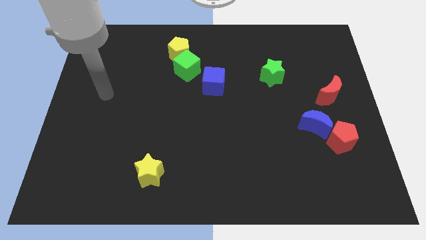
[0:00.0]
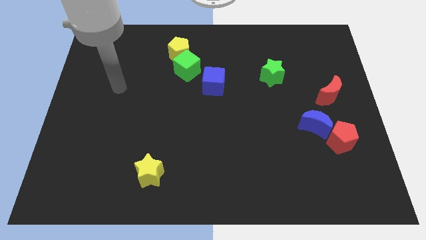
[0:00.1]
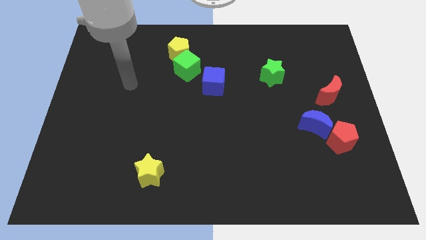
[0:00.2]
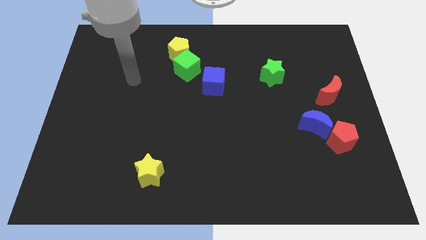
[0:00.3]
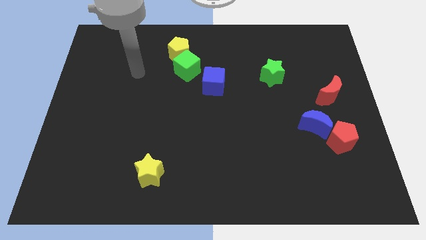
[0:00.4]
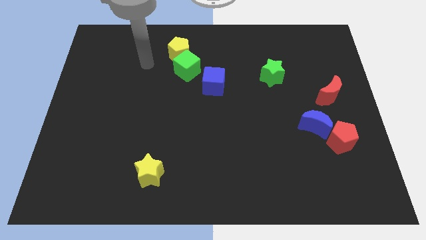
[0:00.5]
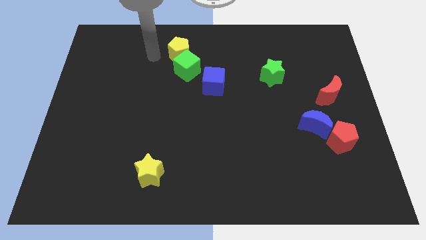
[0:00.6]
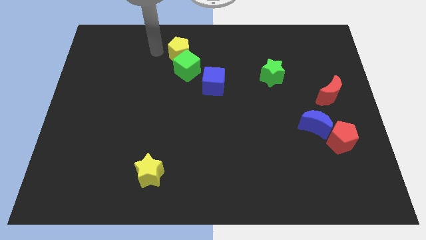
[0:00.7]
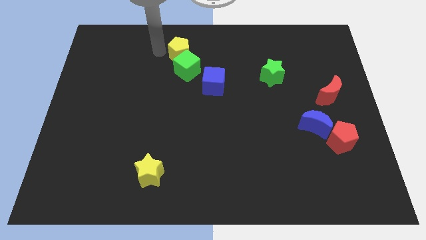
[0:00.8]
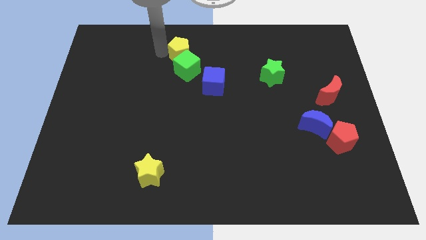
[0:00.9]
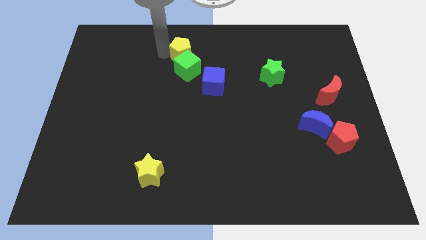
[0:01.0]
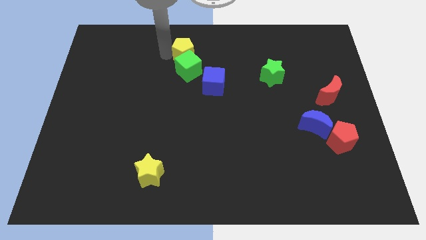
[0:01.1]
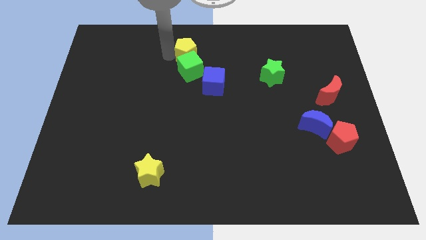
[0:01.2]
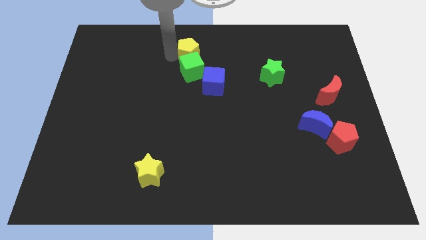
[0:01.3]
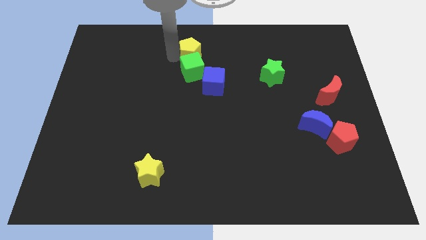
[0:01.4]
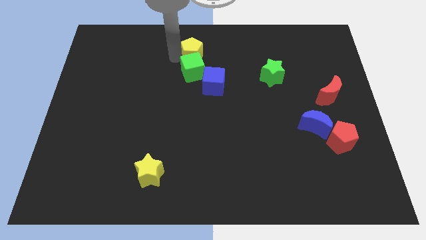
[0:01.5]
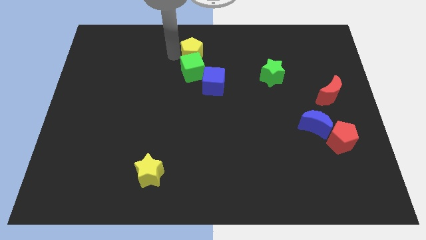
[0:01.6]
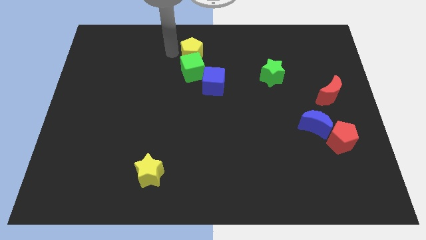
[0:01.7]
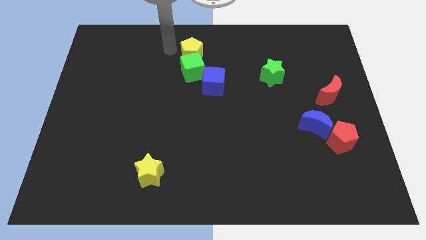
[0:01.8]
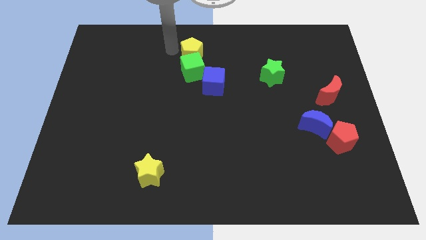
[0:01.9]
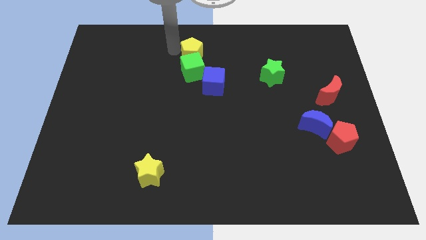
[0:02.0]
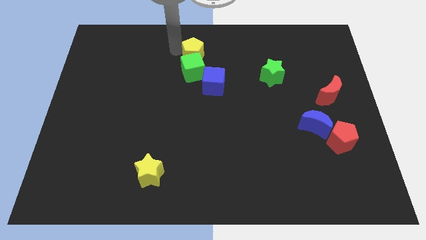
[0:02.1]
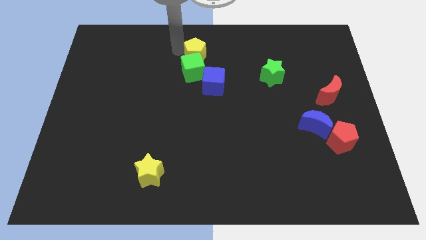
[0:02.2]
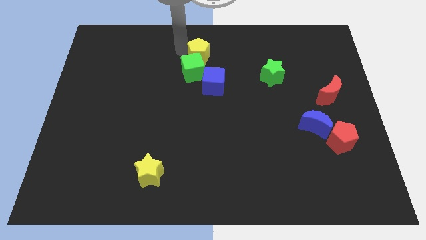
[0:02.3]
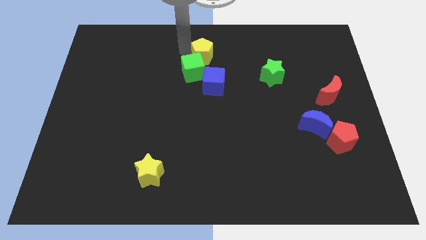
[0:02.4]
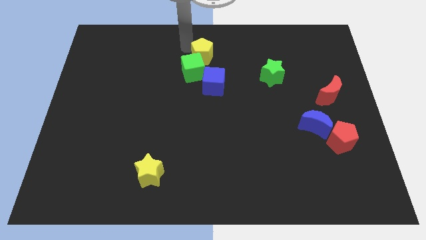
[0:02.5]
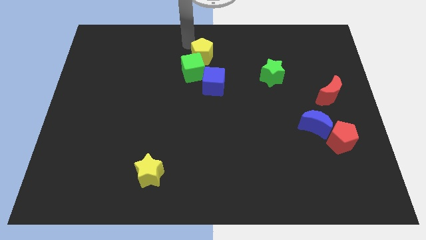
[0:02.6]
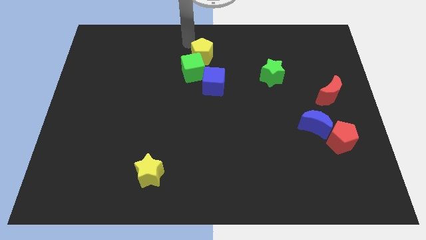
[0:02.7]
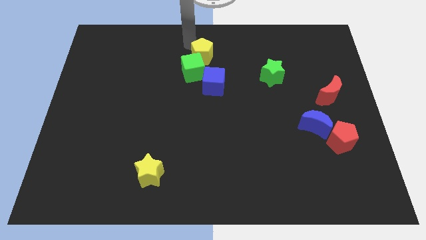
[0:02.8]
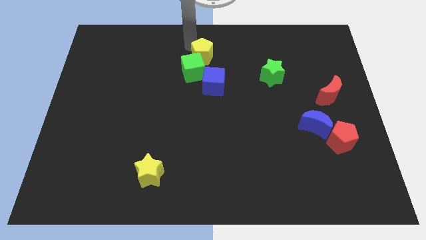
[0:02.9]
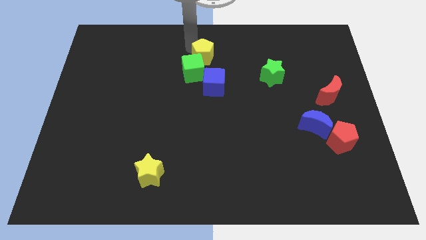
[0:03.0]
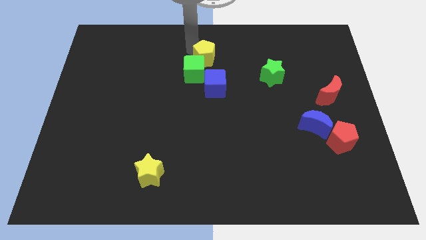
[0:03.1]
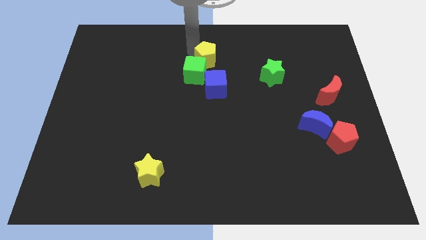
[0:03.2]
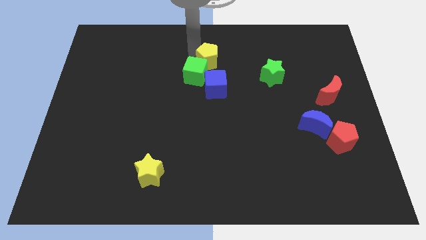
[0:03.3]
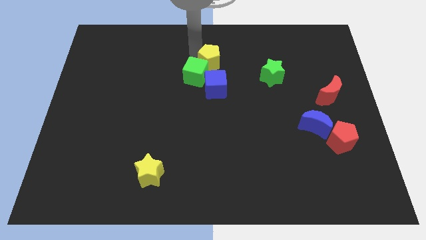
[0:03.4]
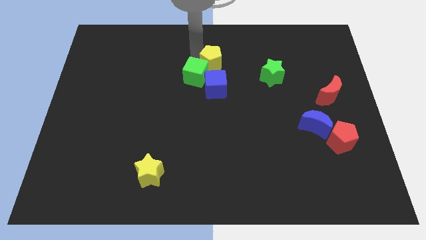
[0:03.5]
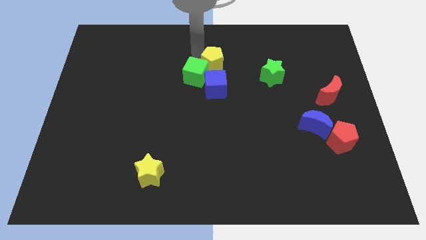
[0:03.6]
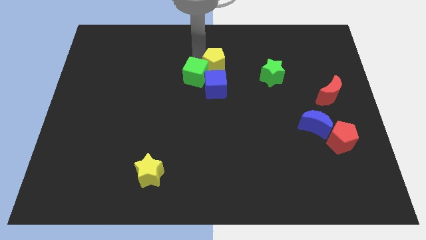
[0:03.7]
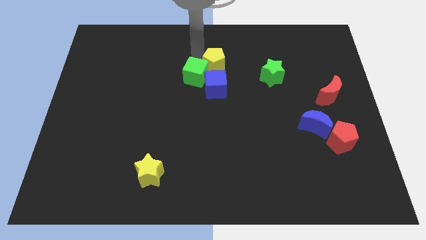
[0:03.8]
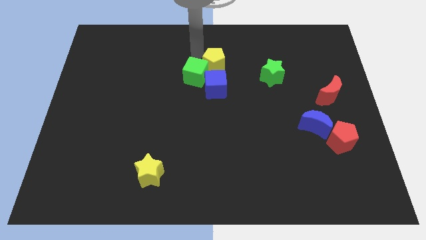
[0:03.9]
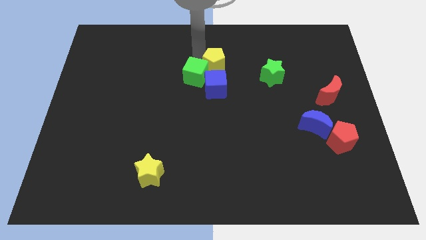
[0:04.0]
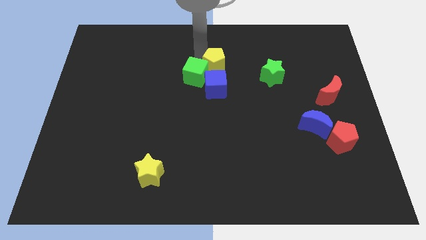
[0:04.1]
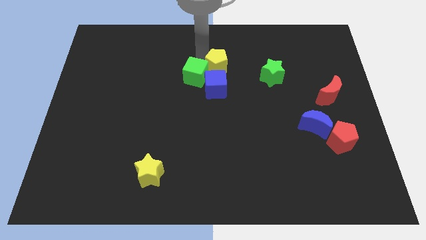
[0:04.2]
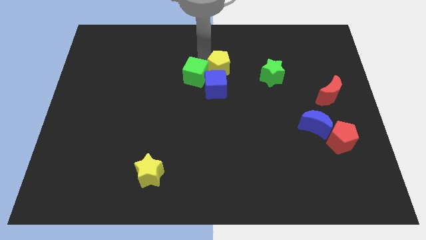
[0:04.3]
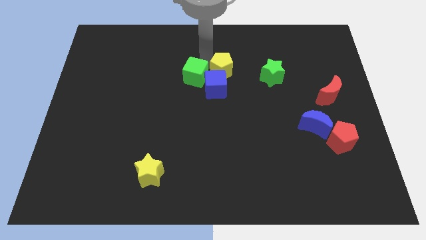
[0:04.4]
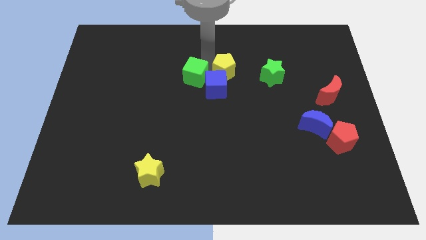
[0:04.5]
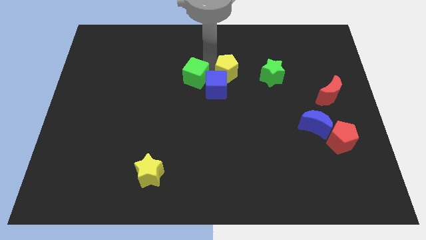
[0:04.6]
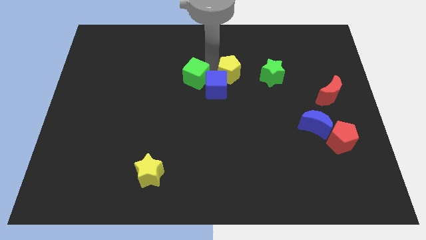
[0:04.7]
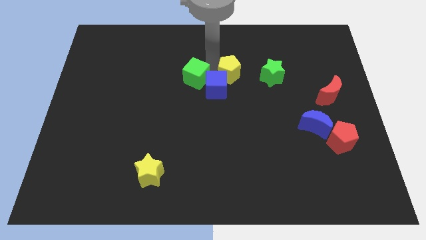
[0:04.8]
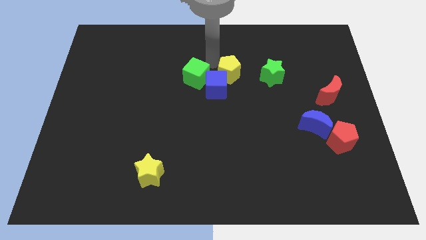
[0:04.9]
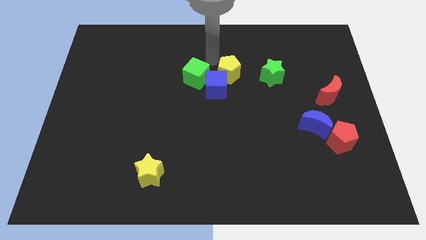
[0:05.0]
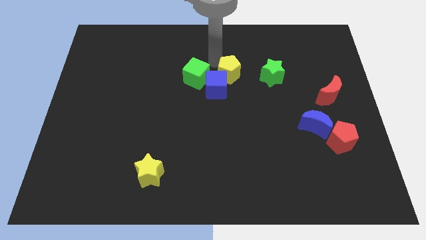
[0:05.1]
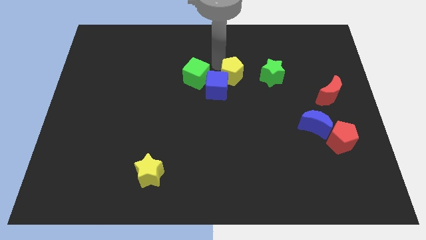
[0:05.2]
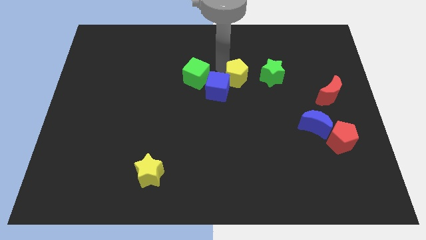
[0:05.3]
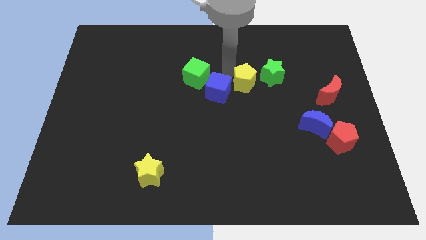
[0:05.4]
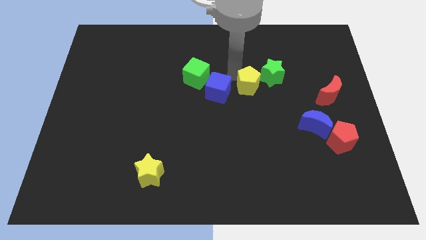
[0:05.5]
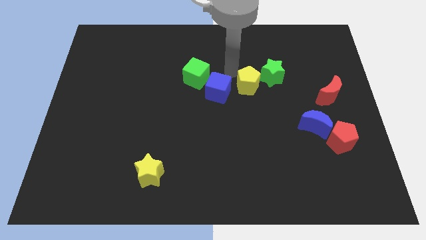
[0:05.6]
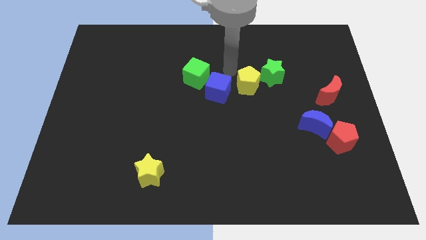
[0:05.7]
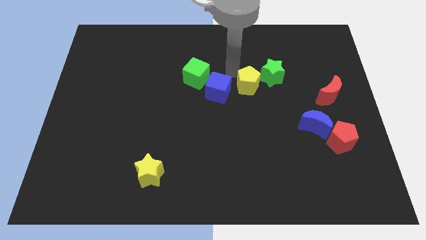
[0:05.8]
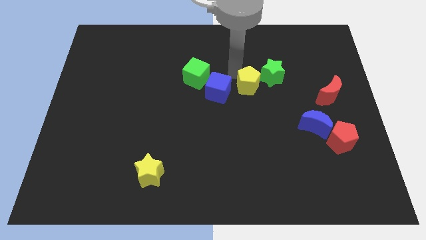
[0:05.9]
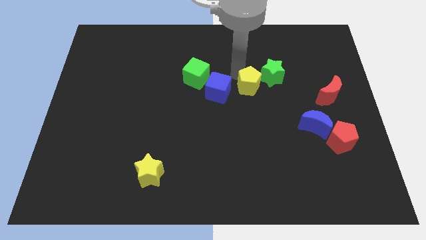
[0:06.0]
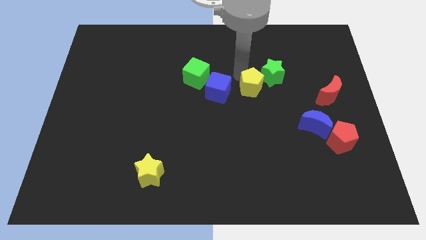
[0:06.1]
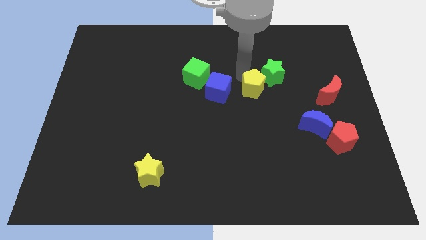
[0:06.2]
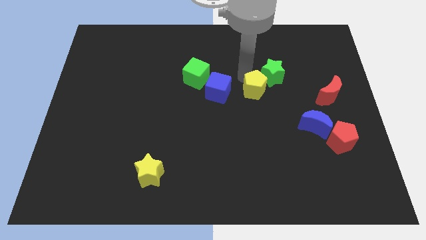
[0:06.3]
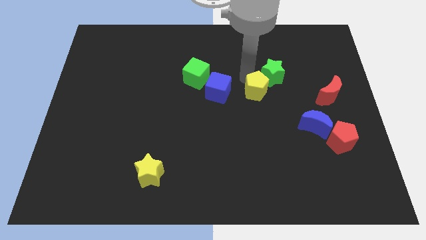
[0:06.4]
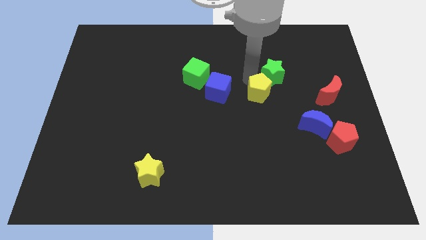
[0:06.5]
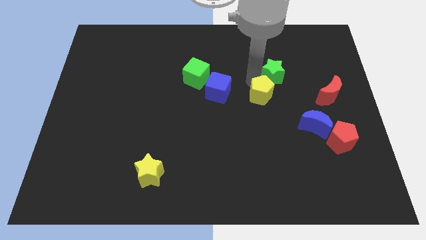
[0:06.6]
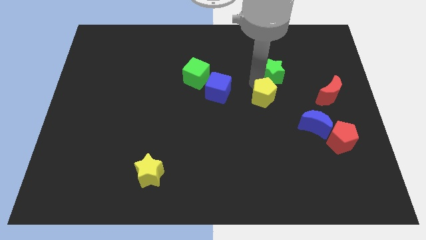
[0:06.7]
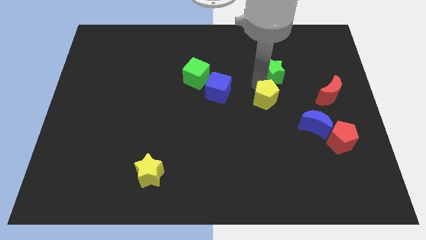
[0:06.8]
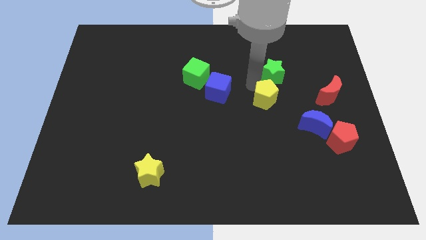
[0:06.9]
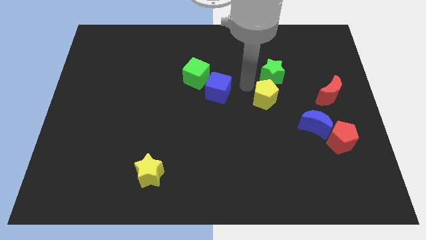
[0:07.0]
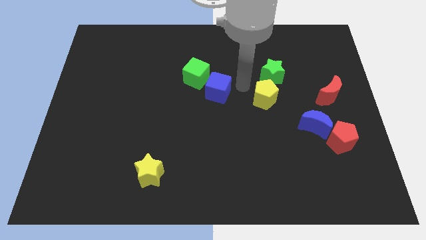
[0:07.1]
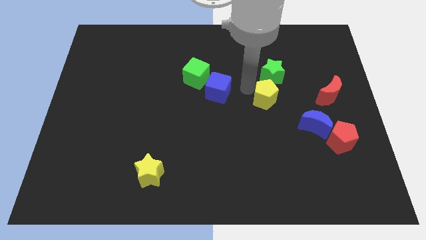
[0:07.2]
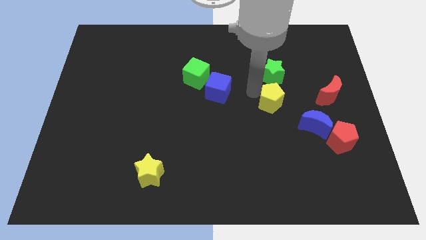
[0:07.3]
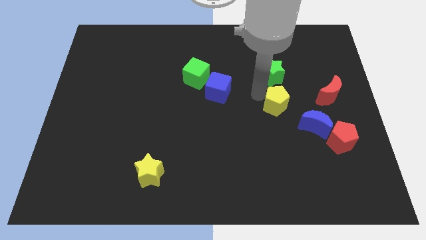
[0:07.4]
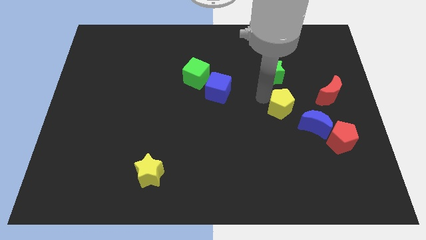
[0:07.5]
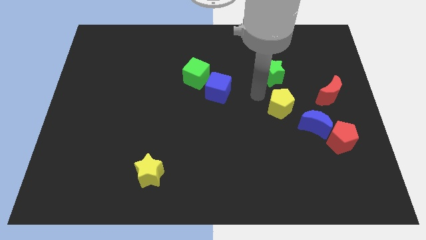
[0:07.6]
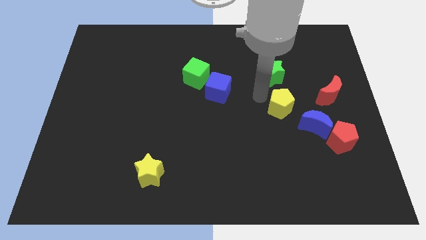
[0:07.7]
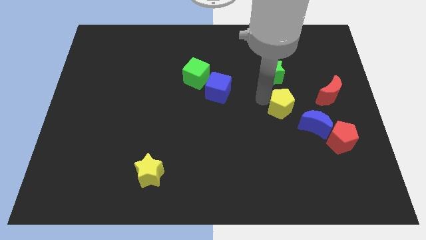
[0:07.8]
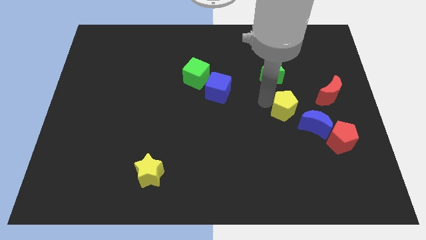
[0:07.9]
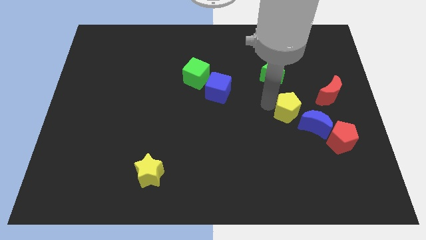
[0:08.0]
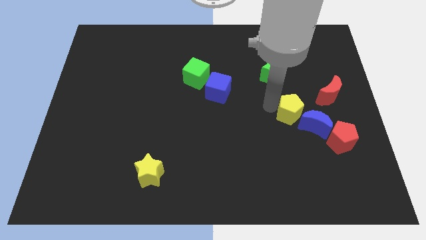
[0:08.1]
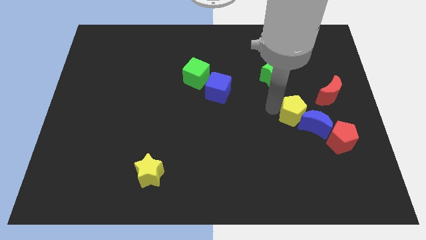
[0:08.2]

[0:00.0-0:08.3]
push the yellow pentagon next to the blue moon
